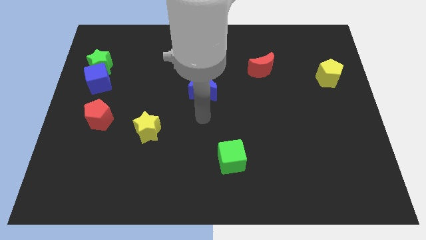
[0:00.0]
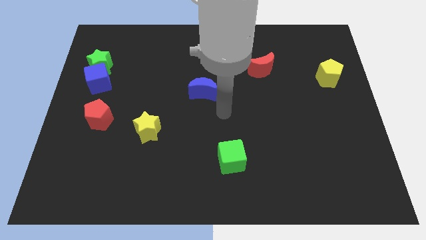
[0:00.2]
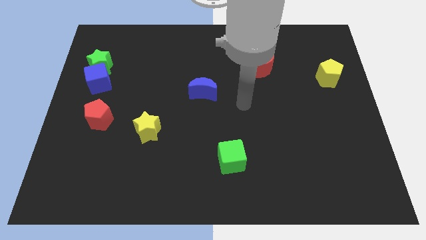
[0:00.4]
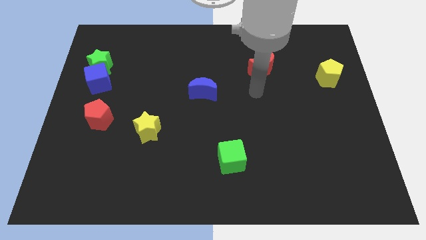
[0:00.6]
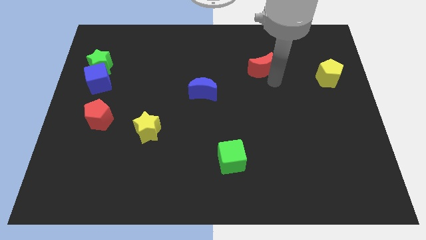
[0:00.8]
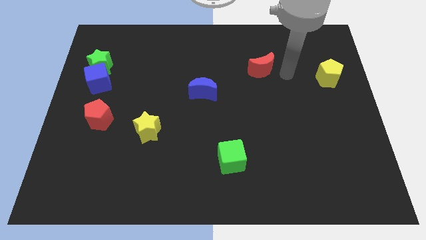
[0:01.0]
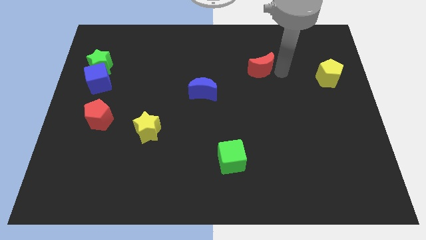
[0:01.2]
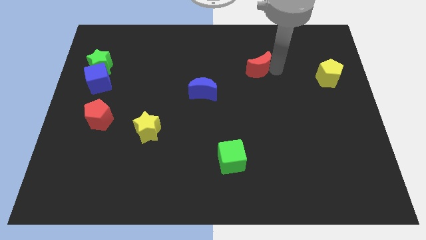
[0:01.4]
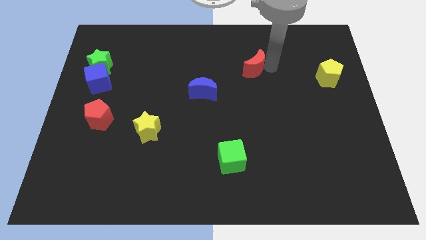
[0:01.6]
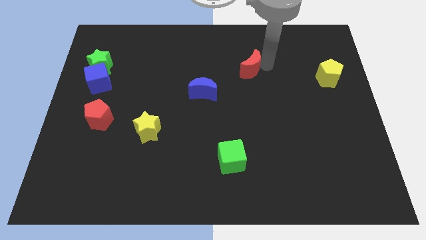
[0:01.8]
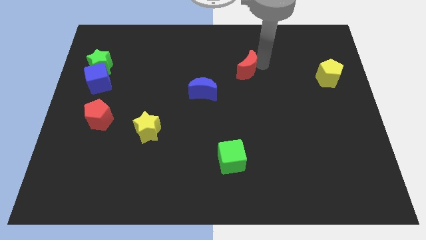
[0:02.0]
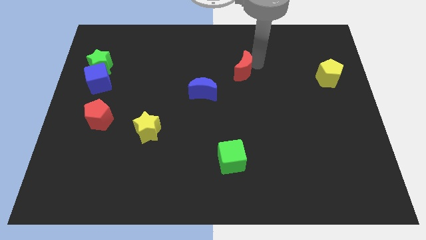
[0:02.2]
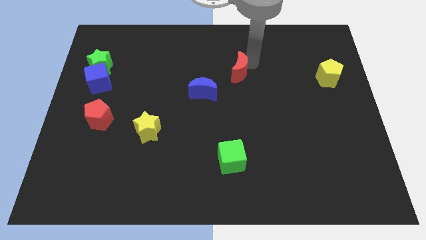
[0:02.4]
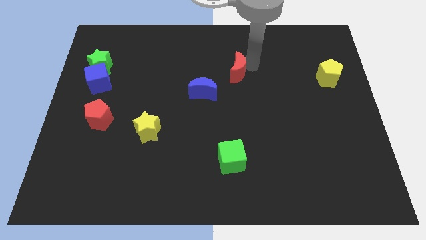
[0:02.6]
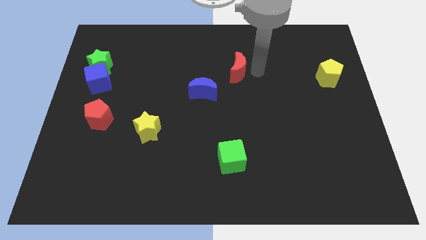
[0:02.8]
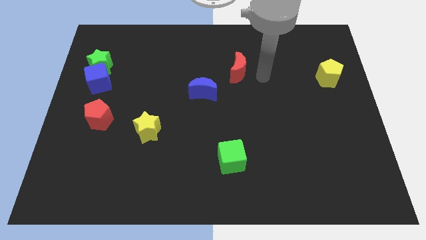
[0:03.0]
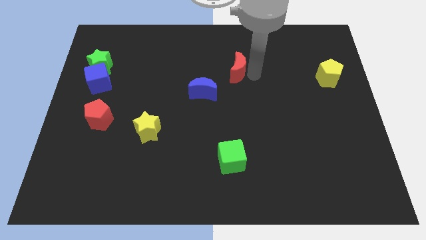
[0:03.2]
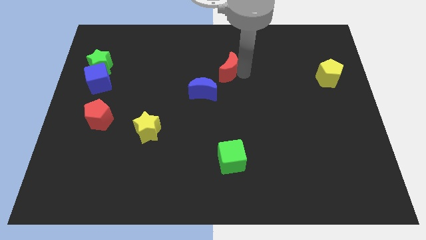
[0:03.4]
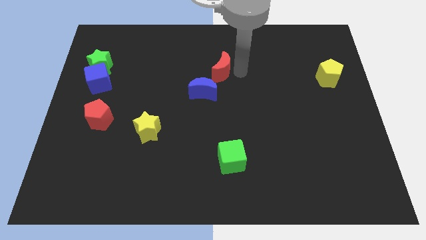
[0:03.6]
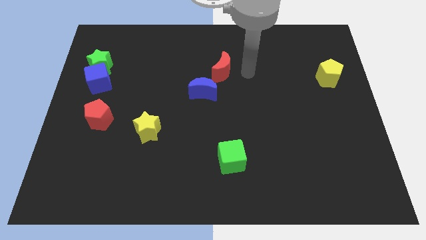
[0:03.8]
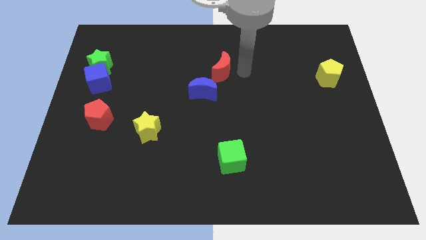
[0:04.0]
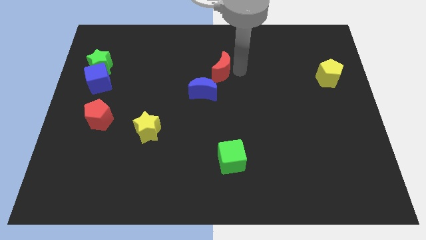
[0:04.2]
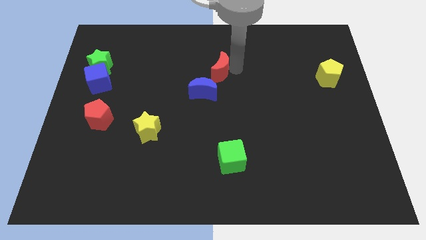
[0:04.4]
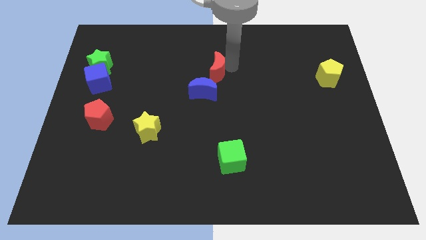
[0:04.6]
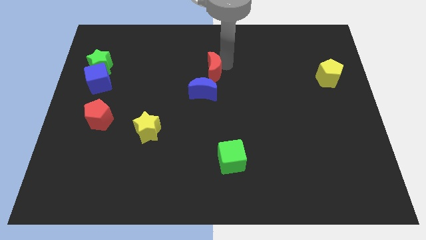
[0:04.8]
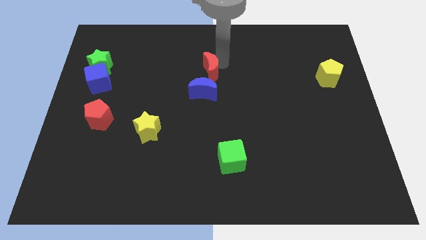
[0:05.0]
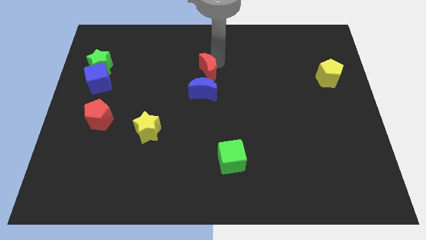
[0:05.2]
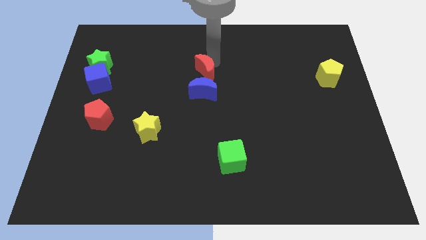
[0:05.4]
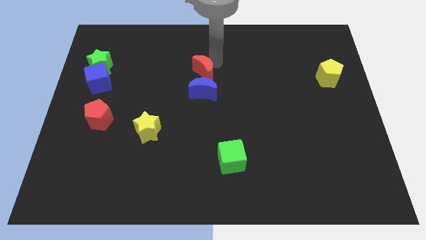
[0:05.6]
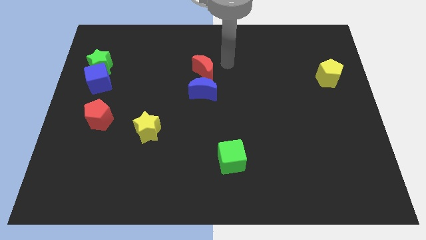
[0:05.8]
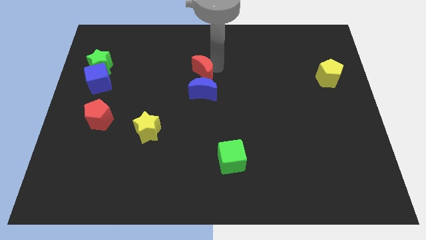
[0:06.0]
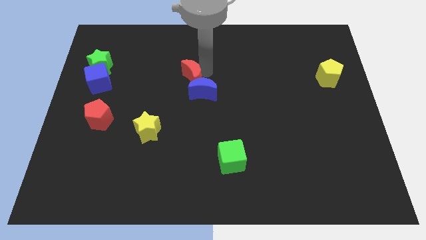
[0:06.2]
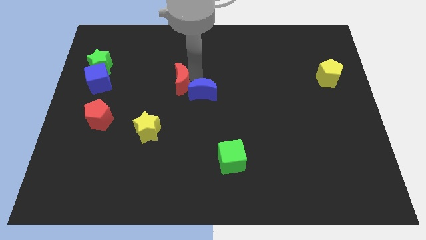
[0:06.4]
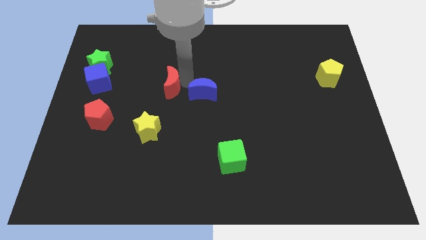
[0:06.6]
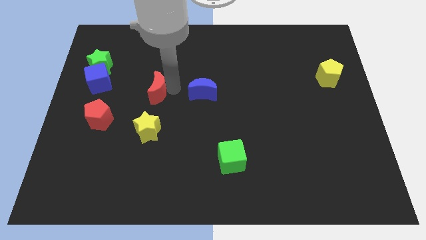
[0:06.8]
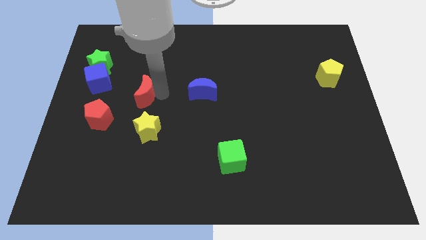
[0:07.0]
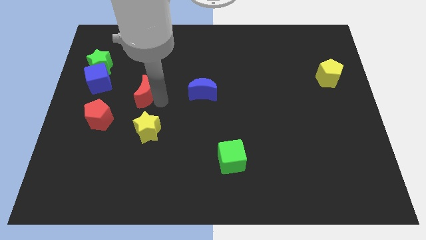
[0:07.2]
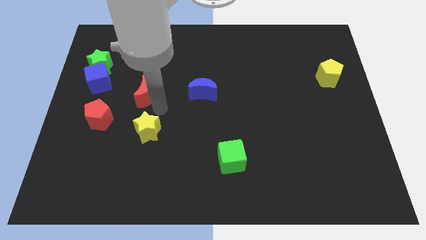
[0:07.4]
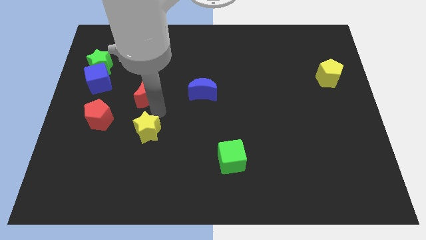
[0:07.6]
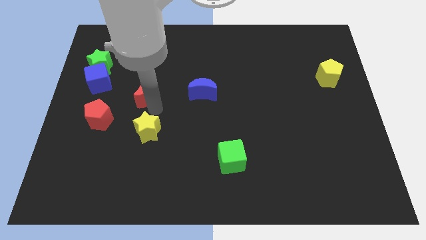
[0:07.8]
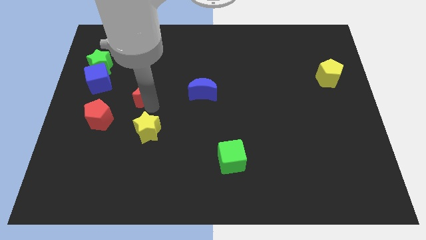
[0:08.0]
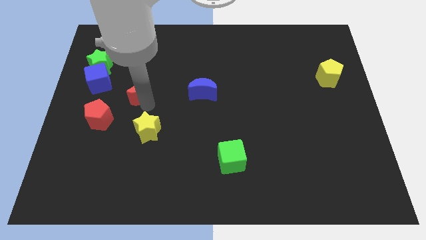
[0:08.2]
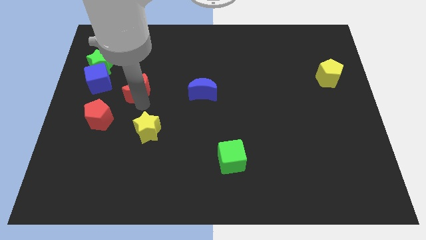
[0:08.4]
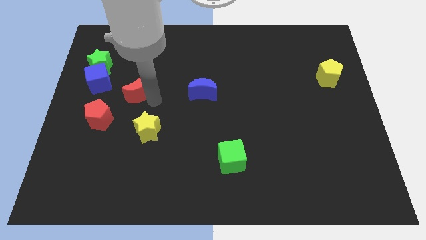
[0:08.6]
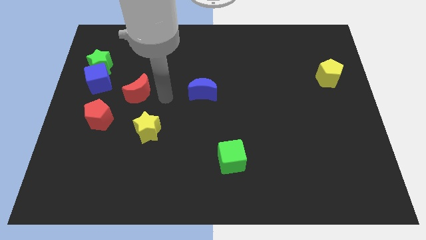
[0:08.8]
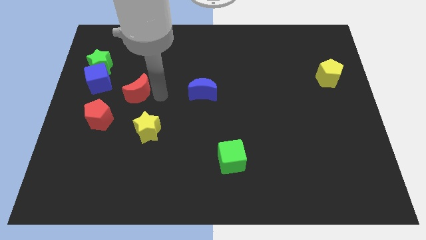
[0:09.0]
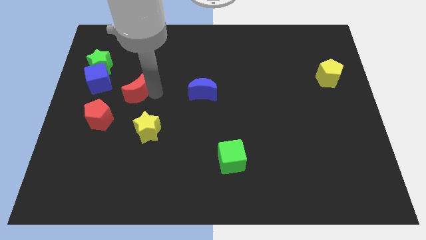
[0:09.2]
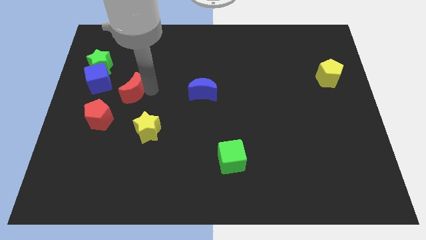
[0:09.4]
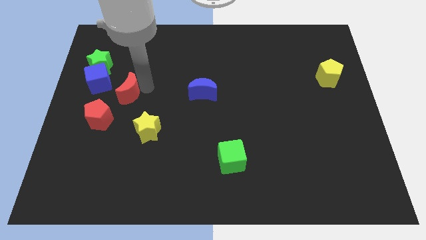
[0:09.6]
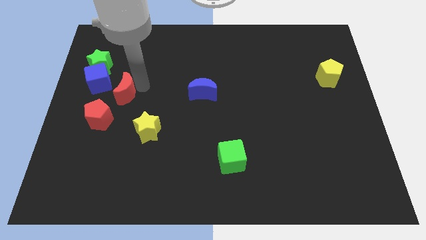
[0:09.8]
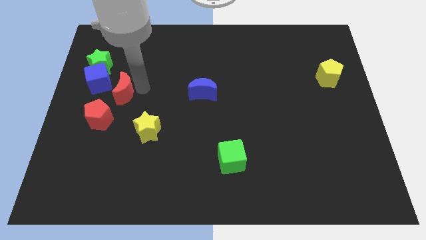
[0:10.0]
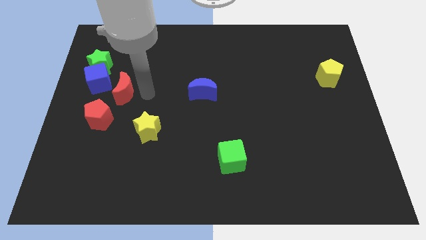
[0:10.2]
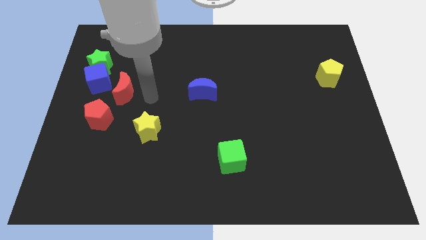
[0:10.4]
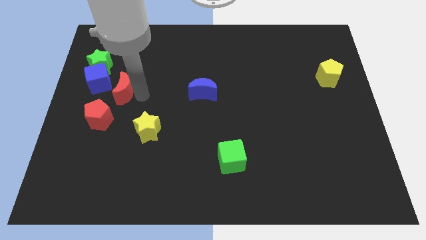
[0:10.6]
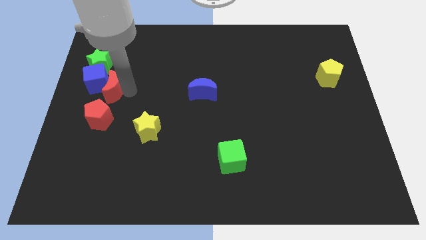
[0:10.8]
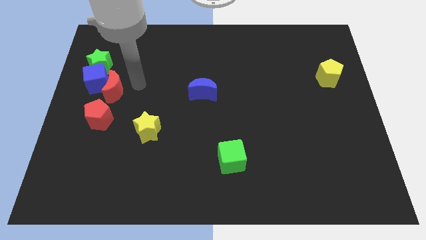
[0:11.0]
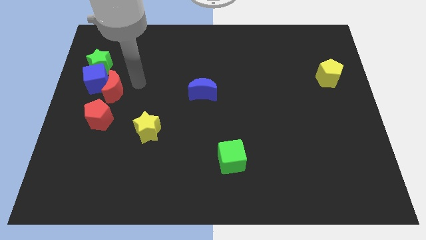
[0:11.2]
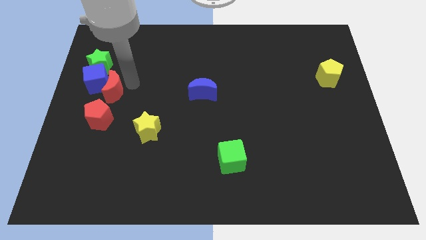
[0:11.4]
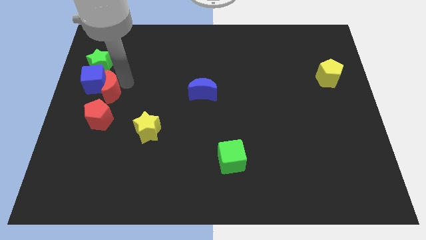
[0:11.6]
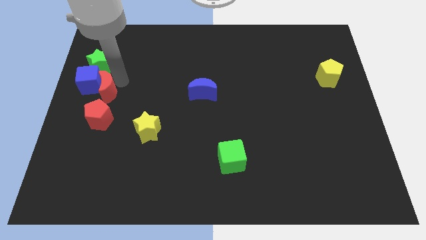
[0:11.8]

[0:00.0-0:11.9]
slide the red moon to the left side
